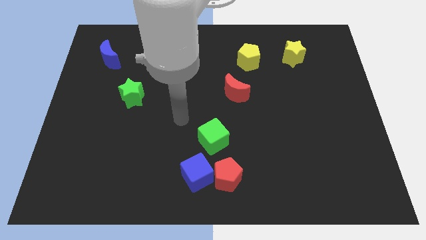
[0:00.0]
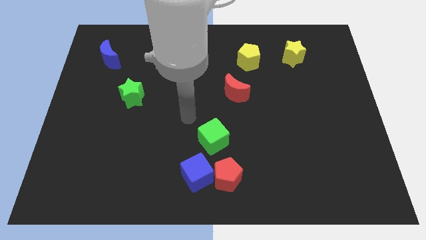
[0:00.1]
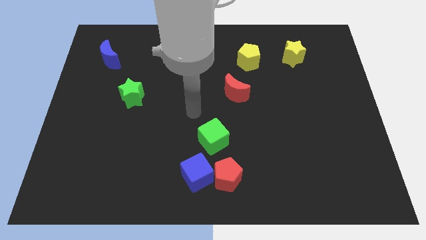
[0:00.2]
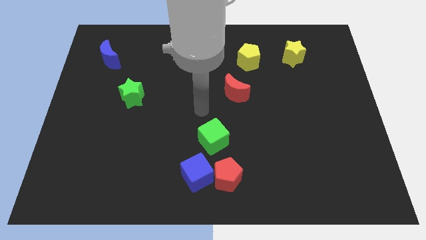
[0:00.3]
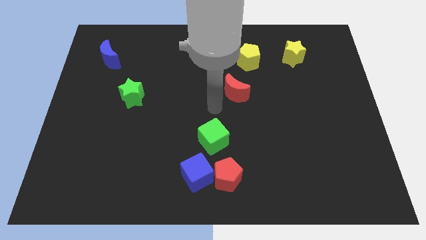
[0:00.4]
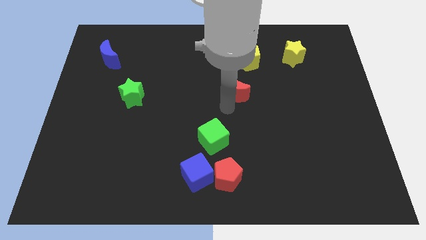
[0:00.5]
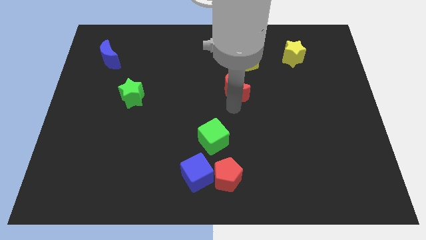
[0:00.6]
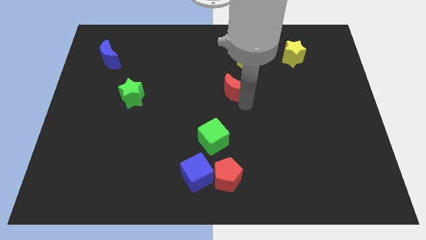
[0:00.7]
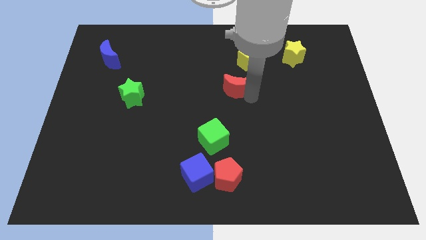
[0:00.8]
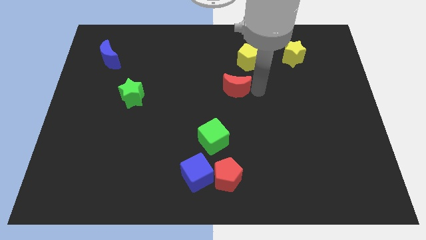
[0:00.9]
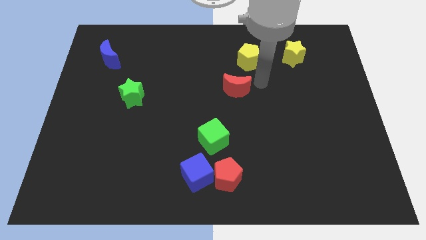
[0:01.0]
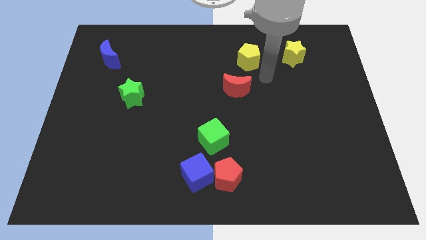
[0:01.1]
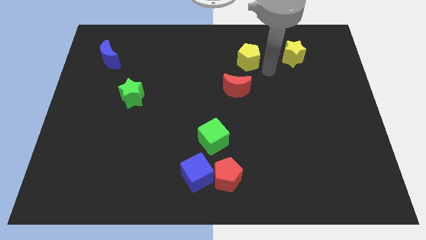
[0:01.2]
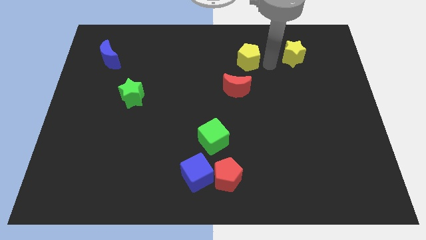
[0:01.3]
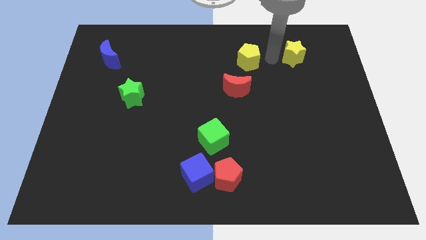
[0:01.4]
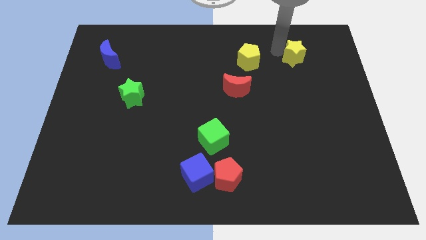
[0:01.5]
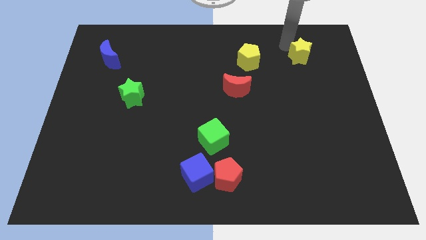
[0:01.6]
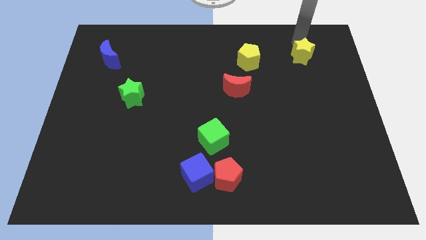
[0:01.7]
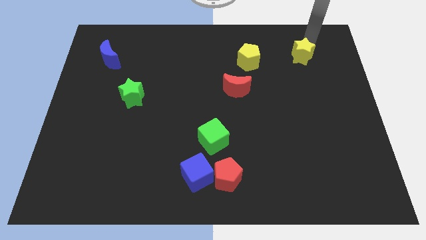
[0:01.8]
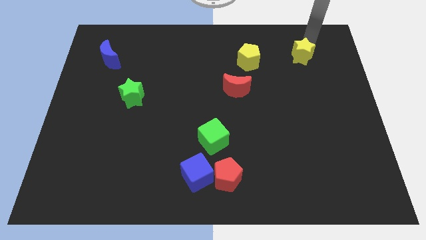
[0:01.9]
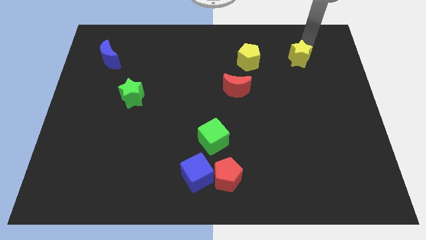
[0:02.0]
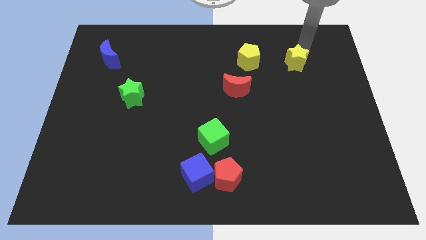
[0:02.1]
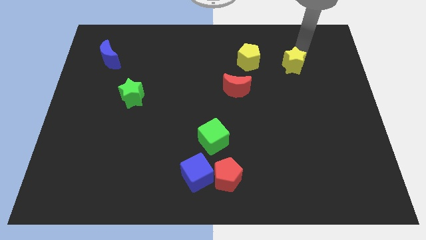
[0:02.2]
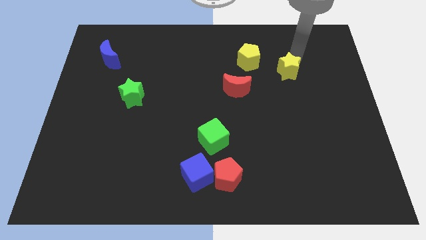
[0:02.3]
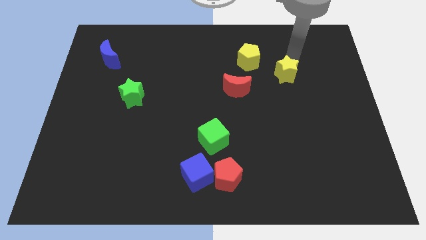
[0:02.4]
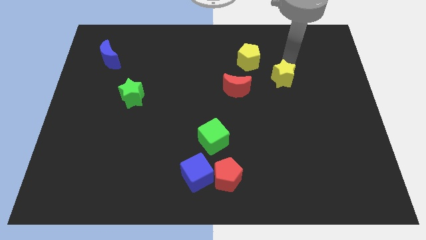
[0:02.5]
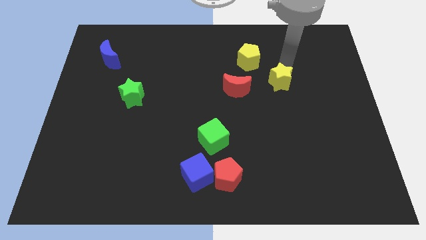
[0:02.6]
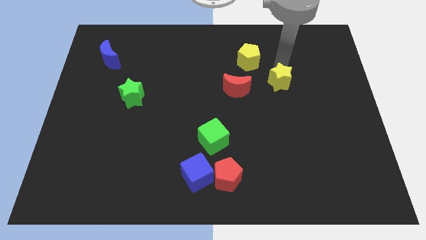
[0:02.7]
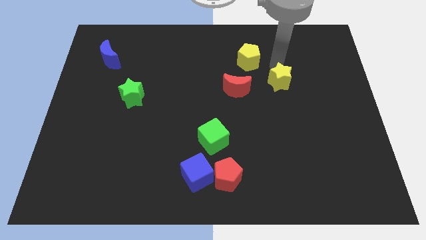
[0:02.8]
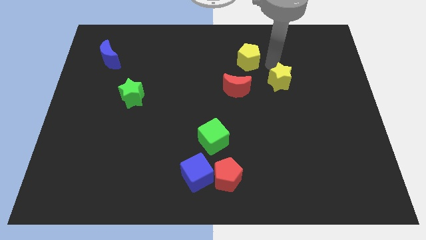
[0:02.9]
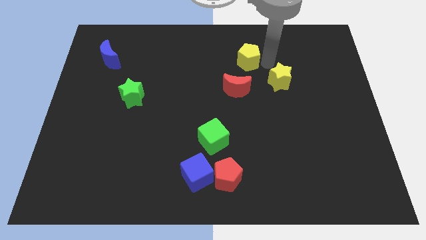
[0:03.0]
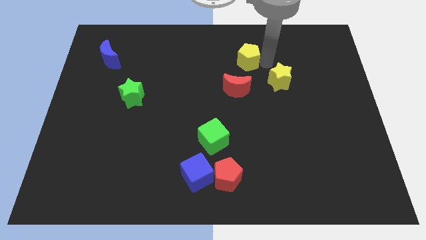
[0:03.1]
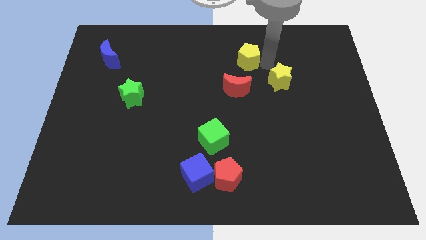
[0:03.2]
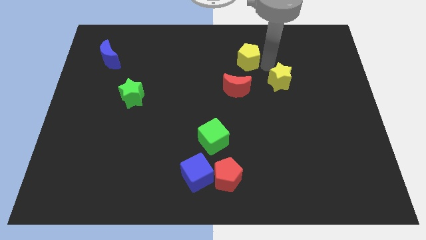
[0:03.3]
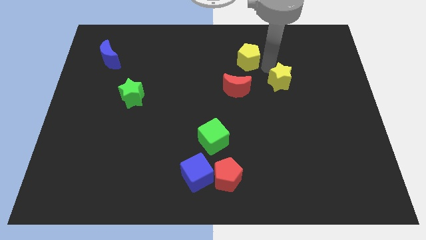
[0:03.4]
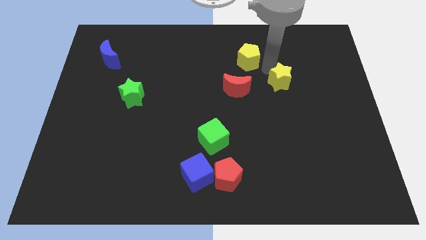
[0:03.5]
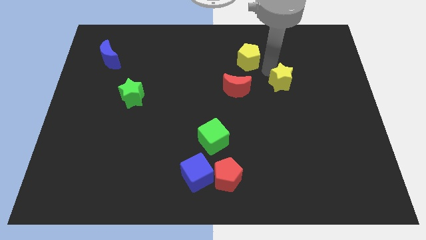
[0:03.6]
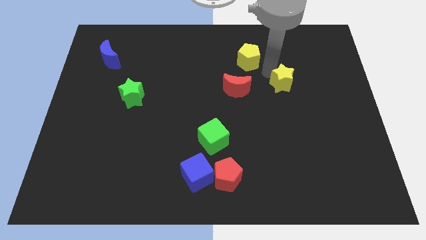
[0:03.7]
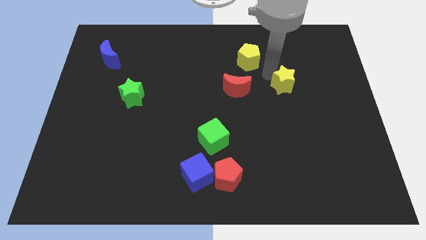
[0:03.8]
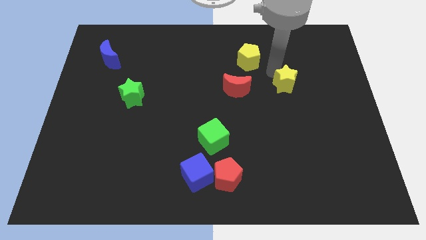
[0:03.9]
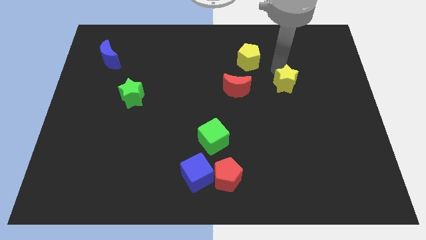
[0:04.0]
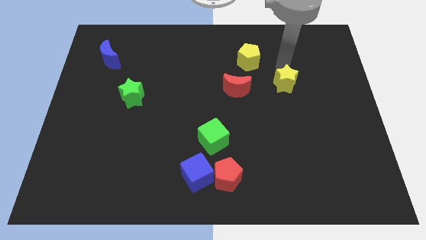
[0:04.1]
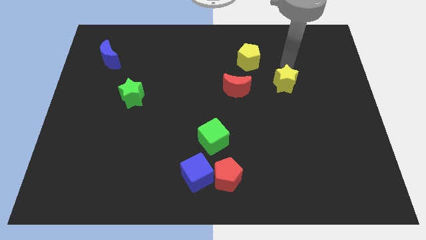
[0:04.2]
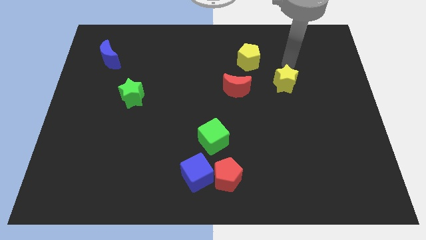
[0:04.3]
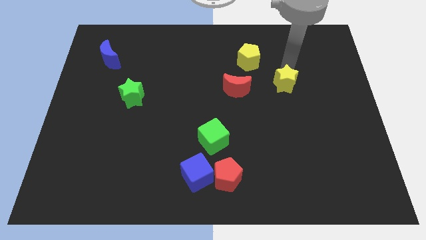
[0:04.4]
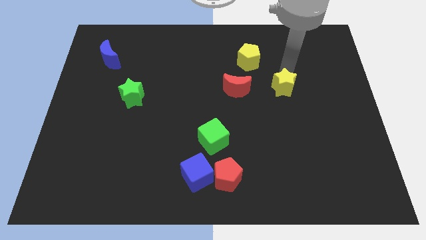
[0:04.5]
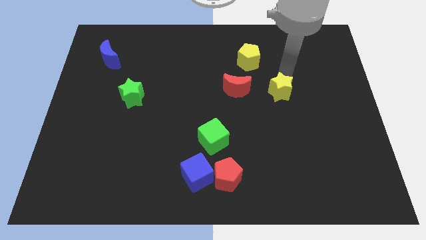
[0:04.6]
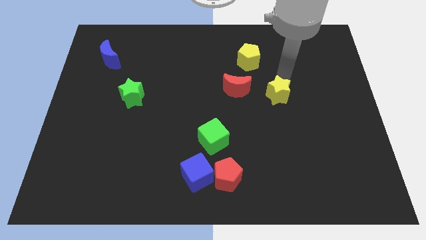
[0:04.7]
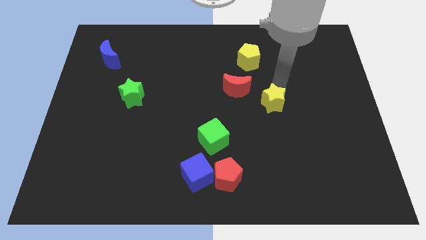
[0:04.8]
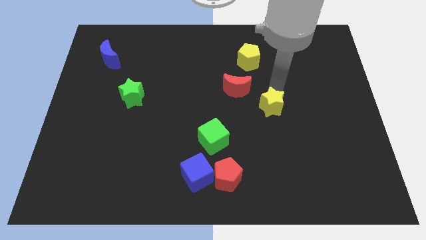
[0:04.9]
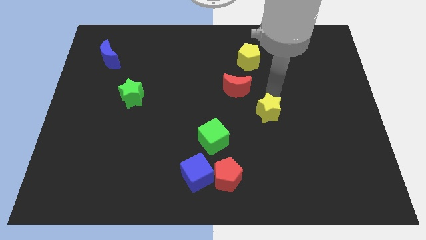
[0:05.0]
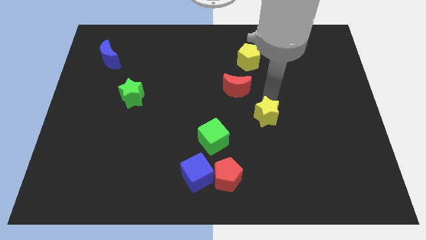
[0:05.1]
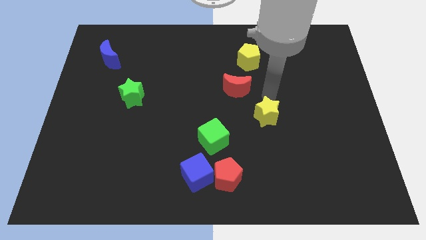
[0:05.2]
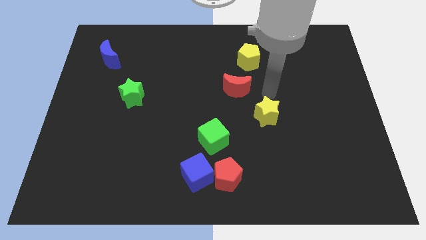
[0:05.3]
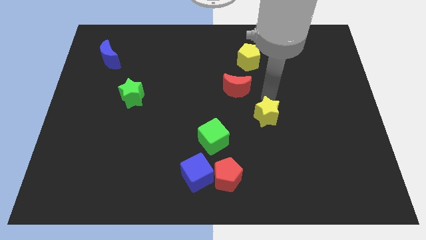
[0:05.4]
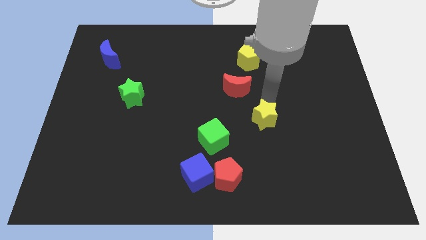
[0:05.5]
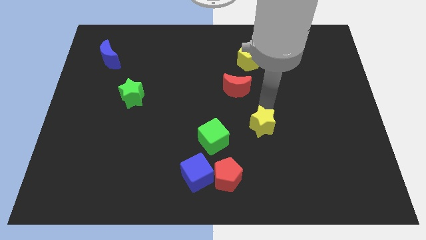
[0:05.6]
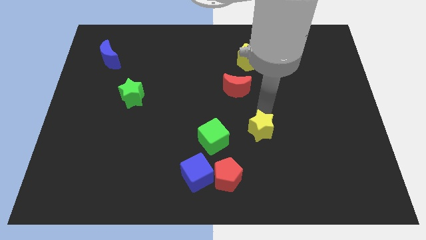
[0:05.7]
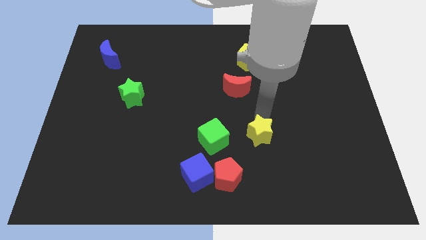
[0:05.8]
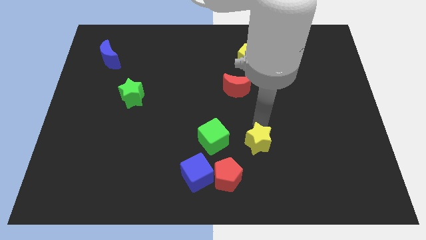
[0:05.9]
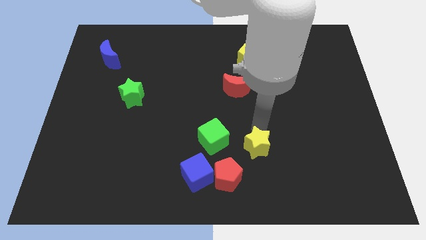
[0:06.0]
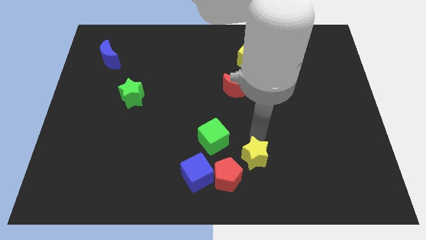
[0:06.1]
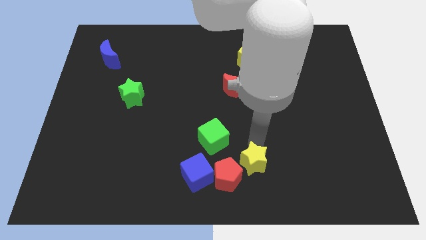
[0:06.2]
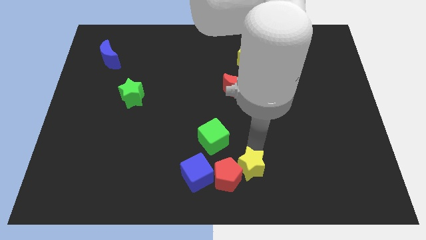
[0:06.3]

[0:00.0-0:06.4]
push the yellow star to the bottom side
